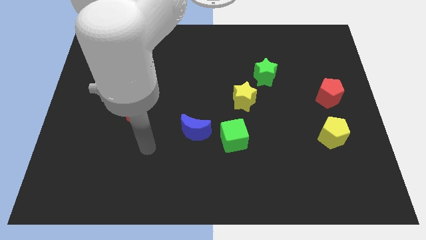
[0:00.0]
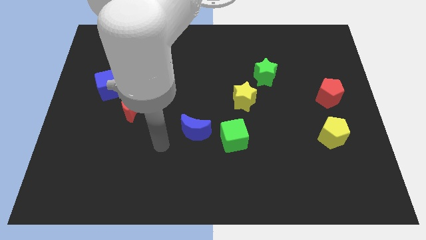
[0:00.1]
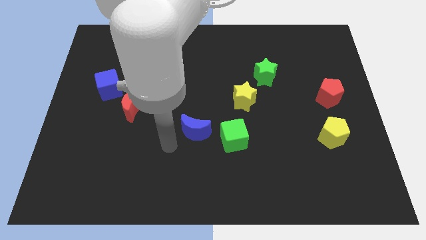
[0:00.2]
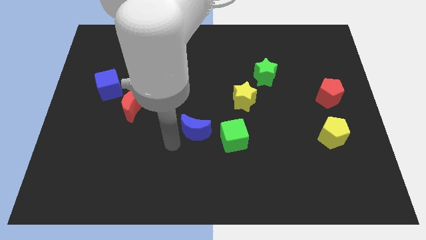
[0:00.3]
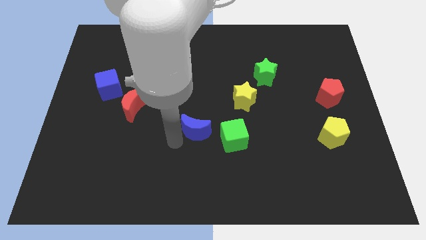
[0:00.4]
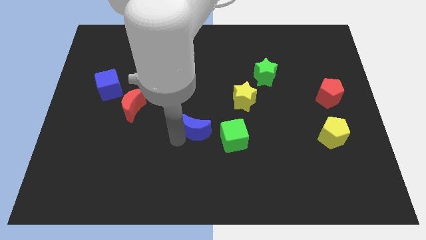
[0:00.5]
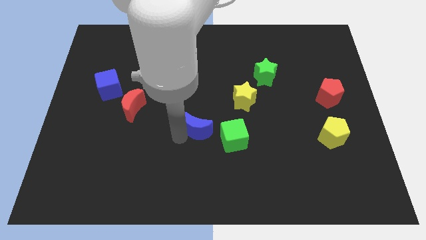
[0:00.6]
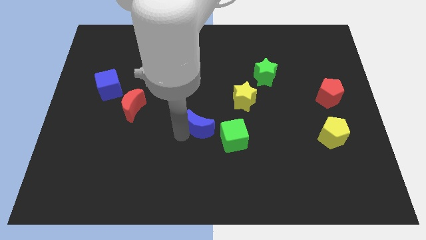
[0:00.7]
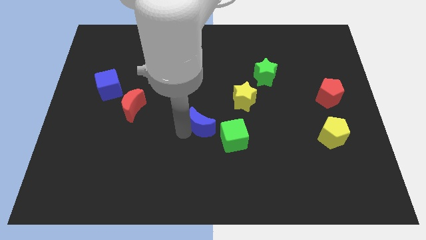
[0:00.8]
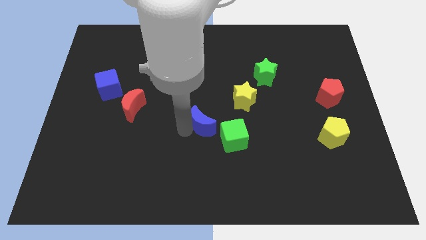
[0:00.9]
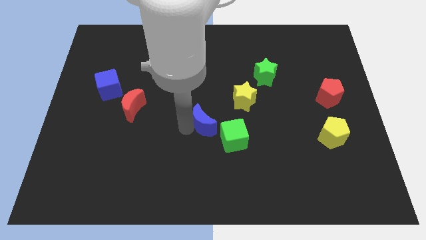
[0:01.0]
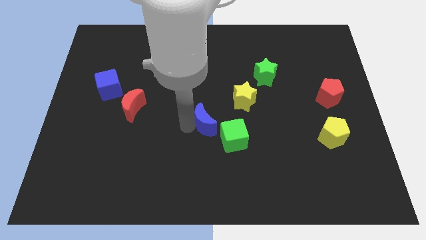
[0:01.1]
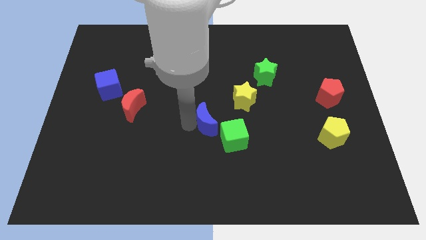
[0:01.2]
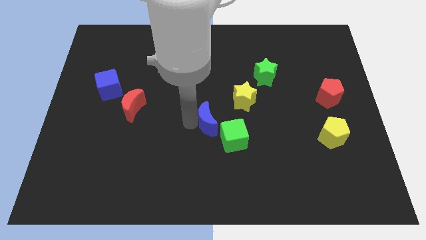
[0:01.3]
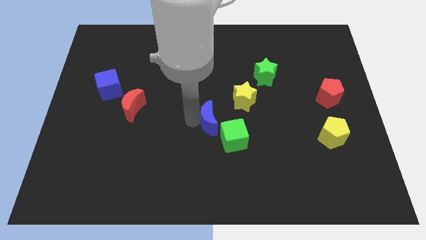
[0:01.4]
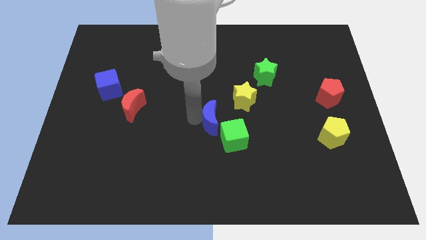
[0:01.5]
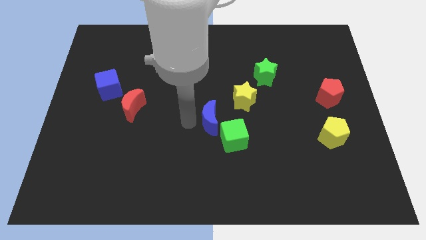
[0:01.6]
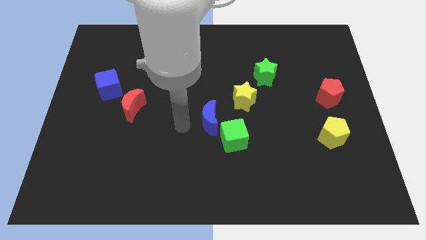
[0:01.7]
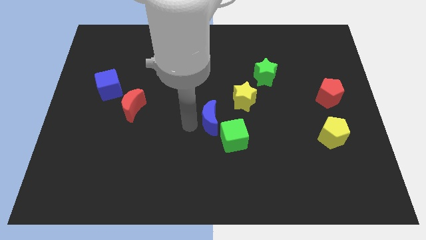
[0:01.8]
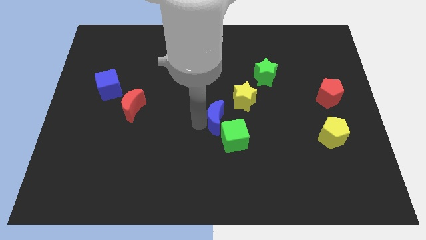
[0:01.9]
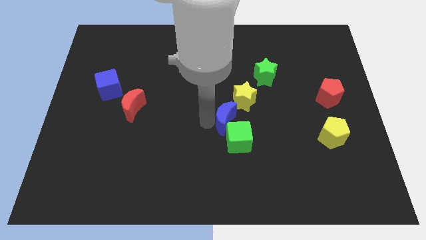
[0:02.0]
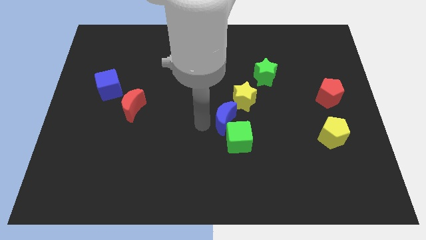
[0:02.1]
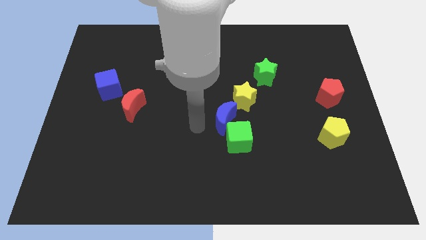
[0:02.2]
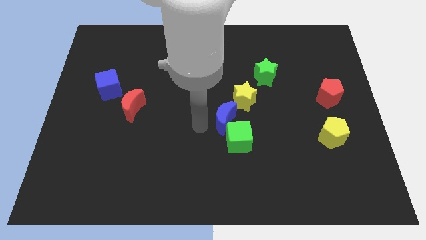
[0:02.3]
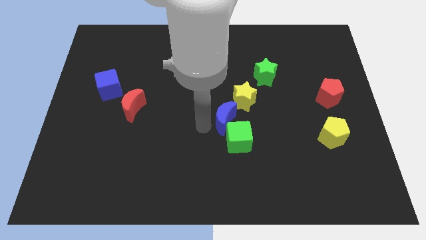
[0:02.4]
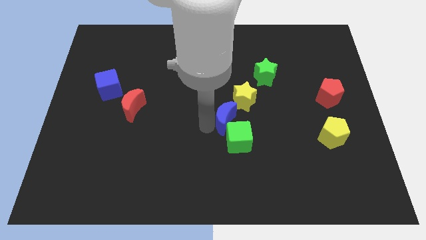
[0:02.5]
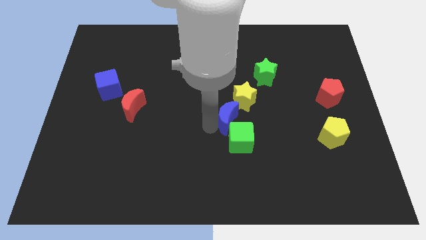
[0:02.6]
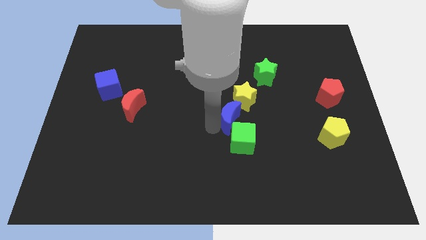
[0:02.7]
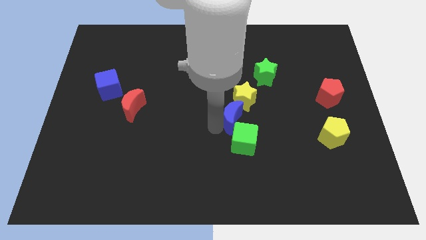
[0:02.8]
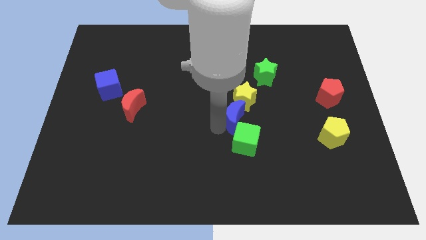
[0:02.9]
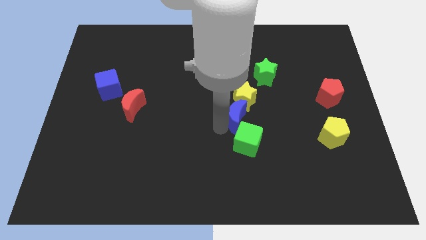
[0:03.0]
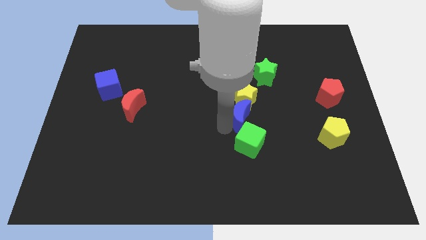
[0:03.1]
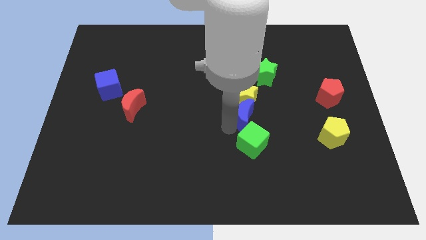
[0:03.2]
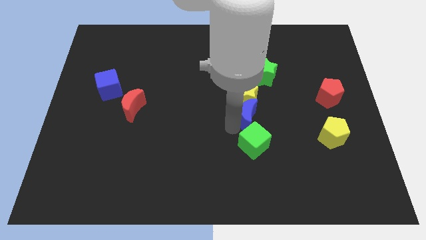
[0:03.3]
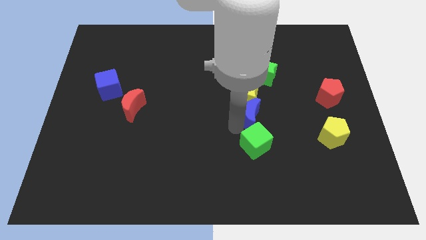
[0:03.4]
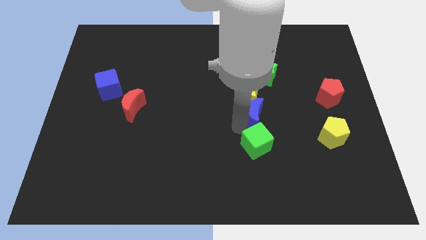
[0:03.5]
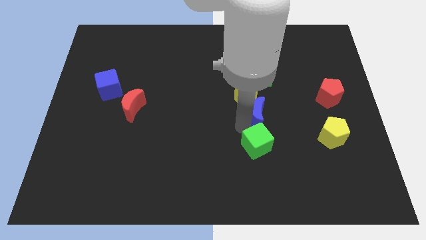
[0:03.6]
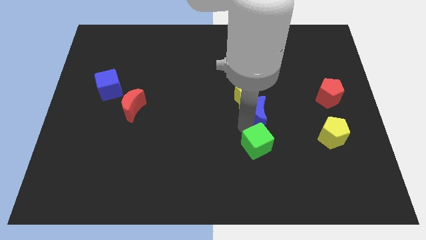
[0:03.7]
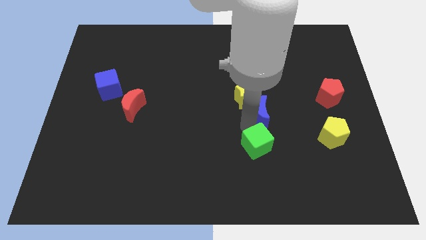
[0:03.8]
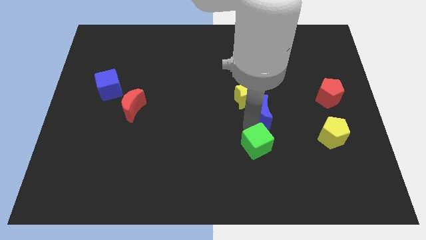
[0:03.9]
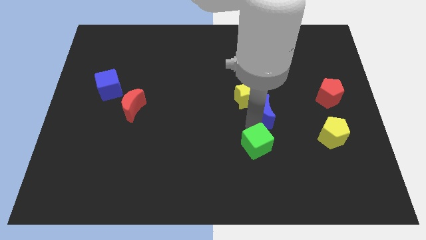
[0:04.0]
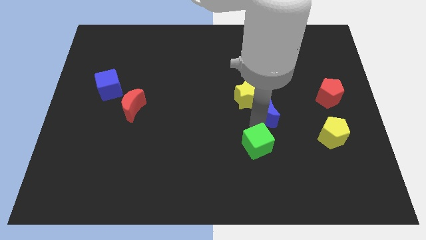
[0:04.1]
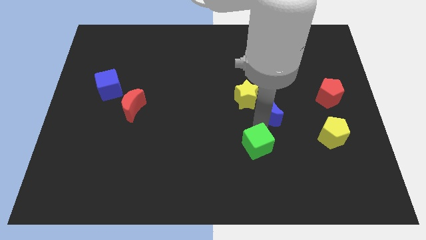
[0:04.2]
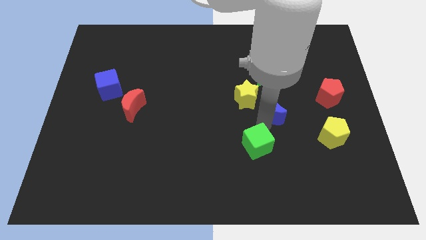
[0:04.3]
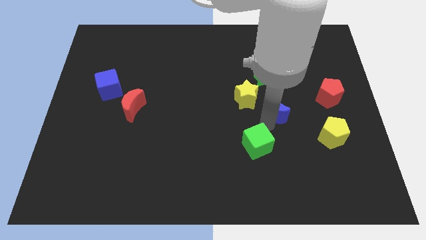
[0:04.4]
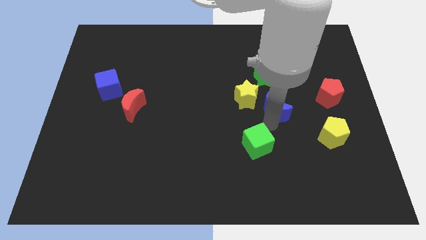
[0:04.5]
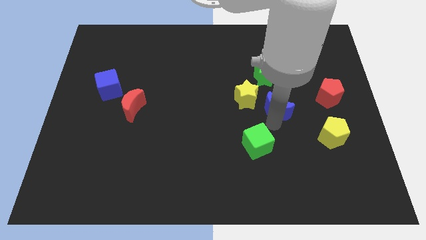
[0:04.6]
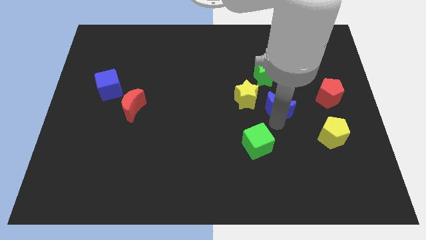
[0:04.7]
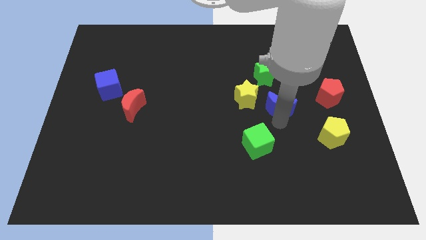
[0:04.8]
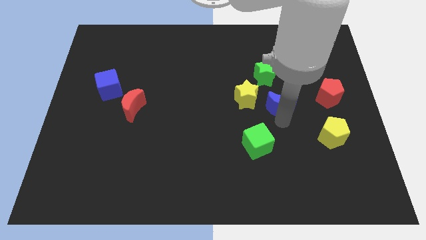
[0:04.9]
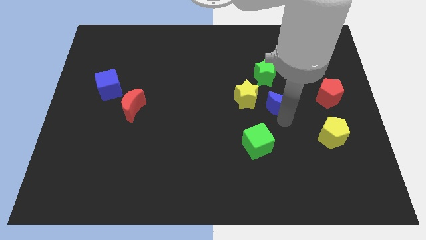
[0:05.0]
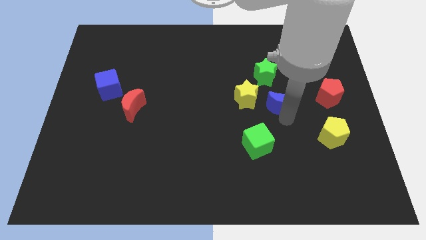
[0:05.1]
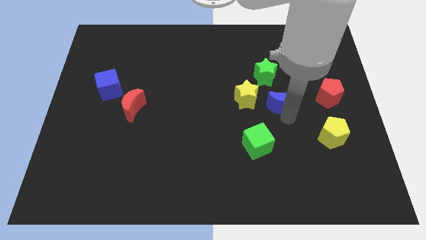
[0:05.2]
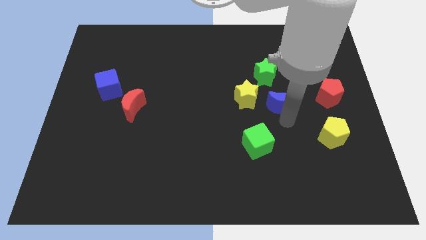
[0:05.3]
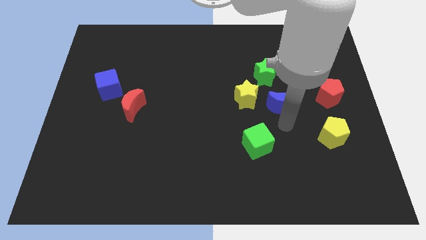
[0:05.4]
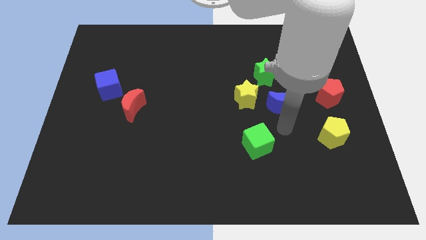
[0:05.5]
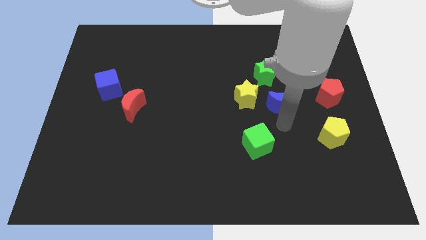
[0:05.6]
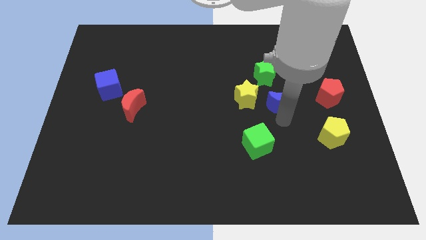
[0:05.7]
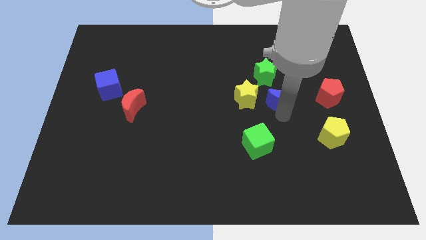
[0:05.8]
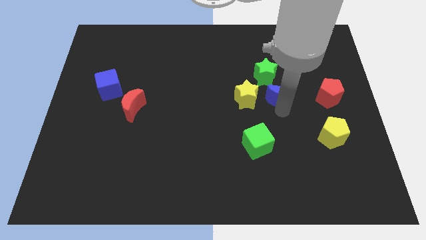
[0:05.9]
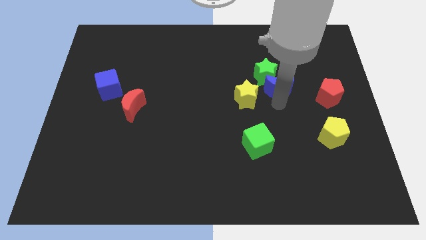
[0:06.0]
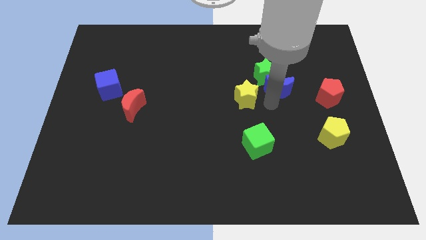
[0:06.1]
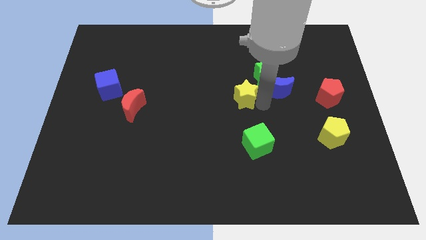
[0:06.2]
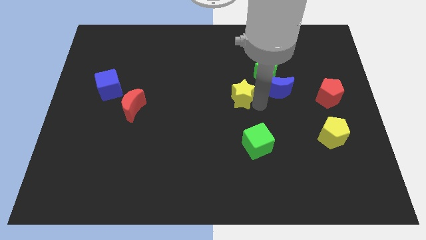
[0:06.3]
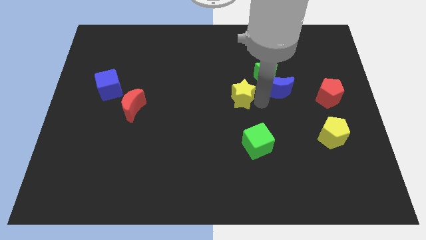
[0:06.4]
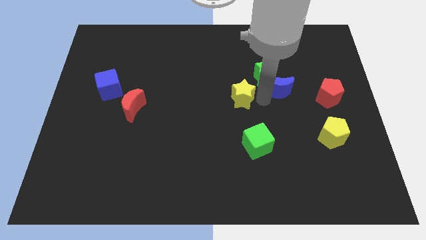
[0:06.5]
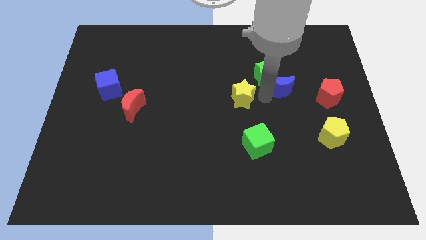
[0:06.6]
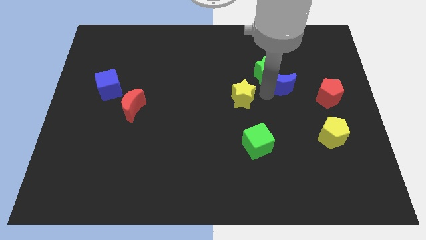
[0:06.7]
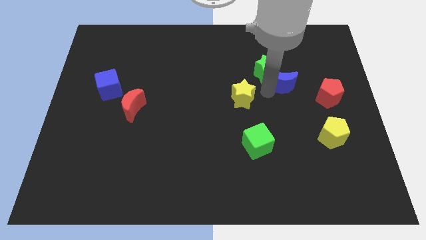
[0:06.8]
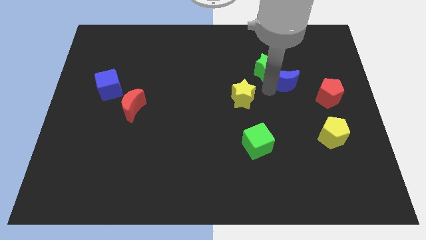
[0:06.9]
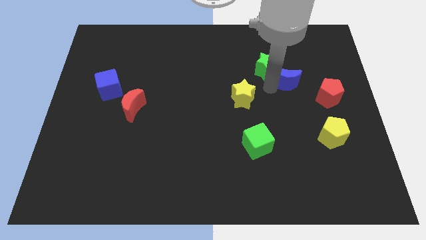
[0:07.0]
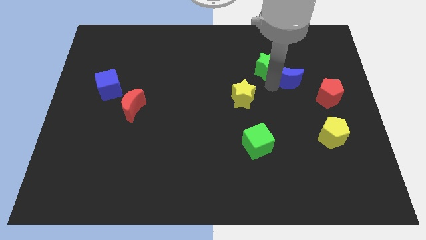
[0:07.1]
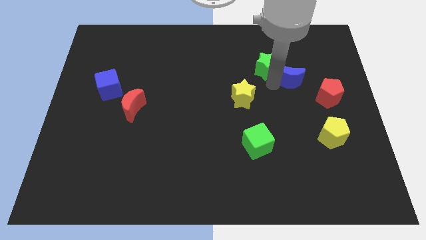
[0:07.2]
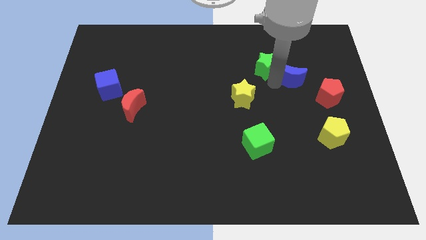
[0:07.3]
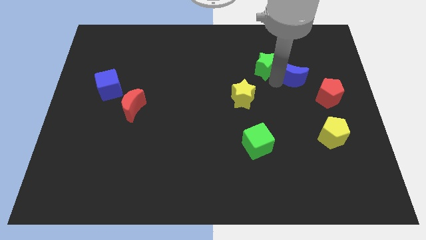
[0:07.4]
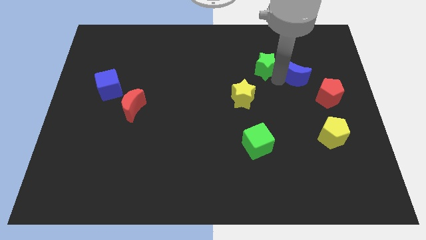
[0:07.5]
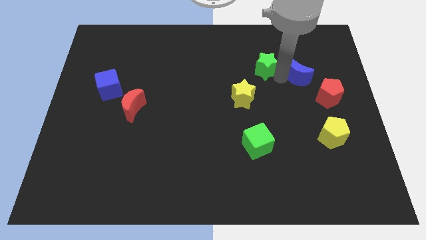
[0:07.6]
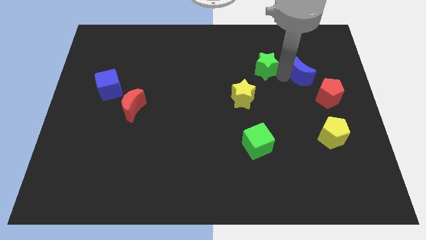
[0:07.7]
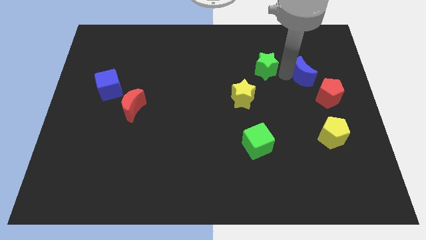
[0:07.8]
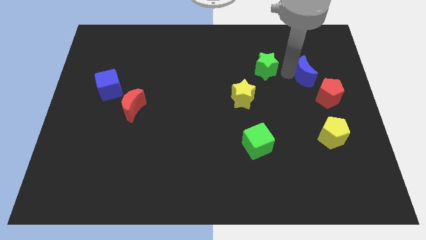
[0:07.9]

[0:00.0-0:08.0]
slide the blue moon to the top of the red pentagon
